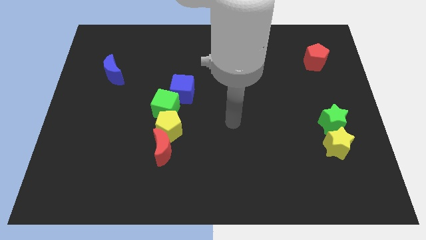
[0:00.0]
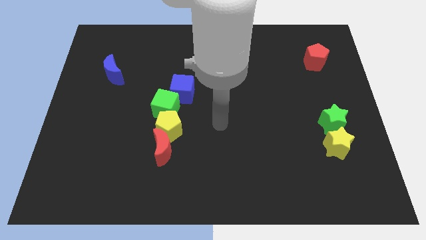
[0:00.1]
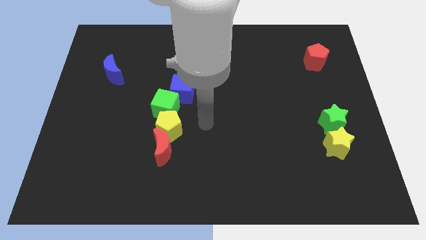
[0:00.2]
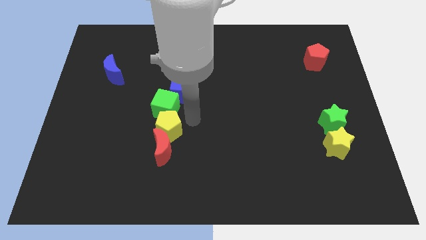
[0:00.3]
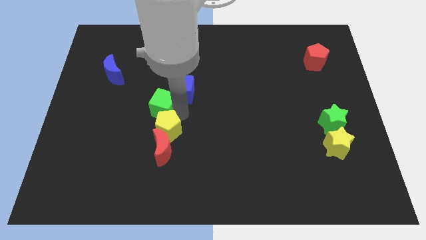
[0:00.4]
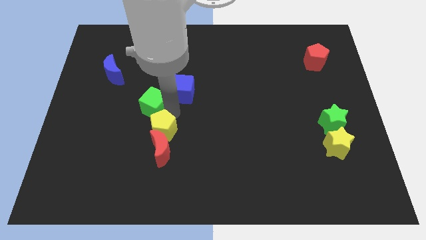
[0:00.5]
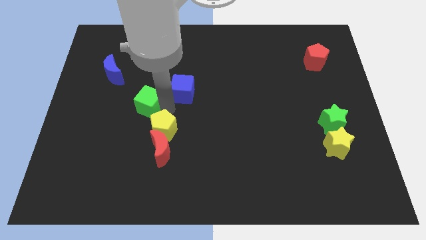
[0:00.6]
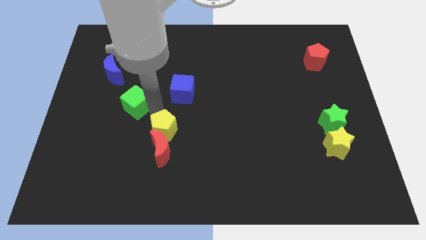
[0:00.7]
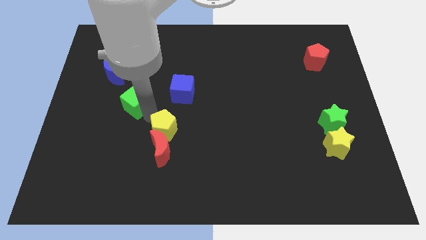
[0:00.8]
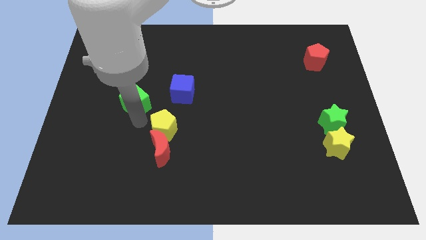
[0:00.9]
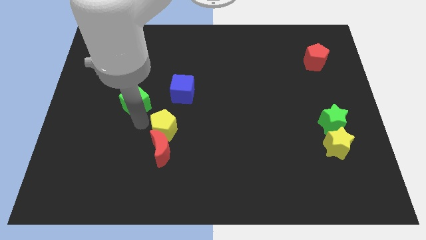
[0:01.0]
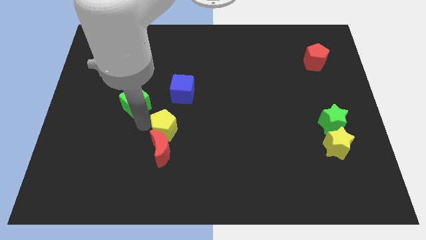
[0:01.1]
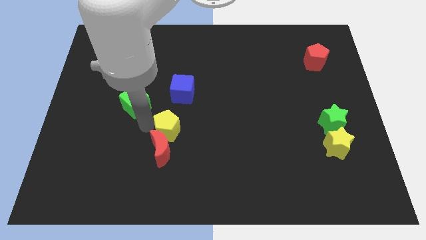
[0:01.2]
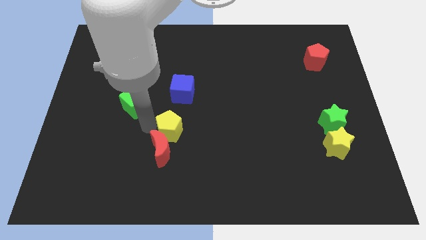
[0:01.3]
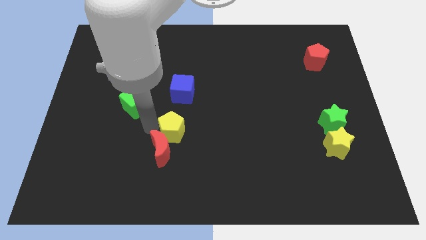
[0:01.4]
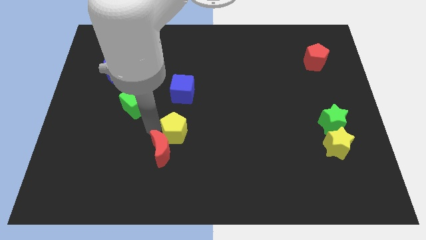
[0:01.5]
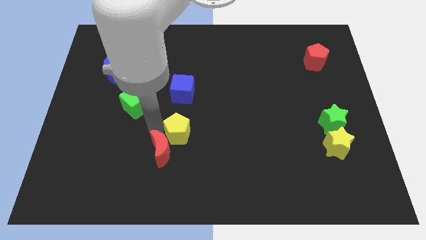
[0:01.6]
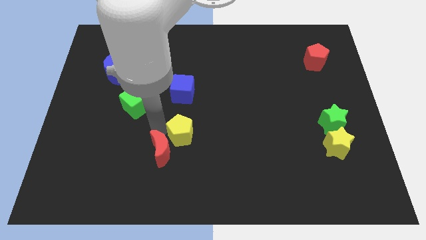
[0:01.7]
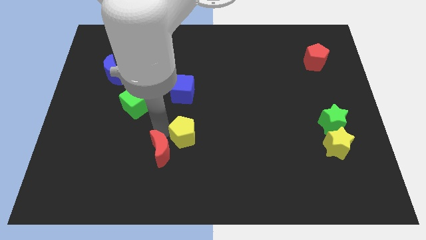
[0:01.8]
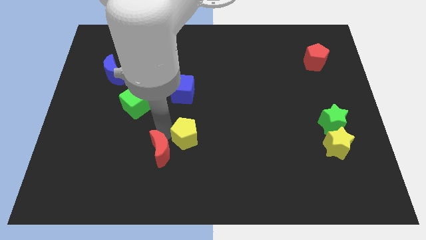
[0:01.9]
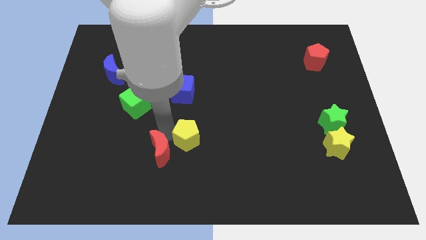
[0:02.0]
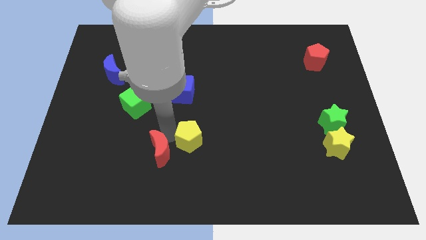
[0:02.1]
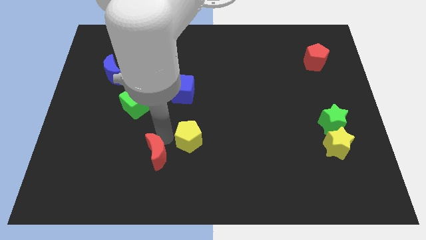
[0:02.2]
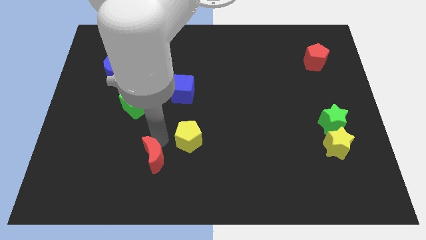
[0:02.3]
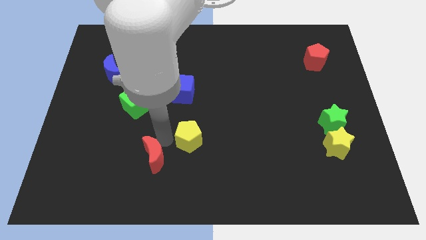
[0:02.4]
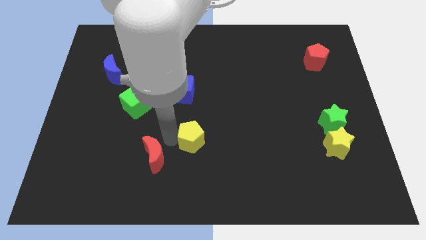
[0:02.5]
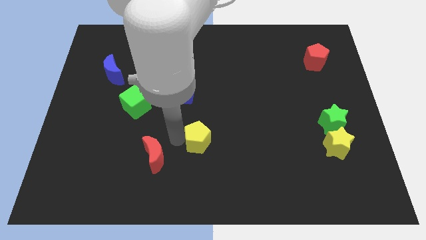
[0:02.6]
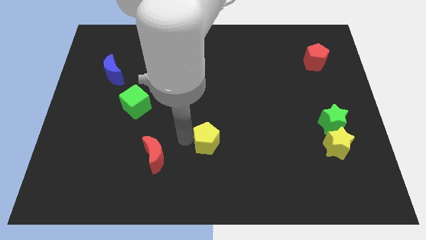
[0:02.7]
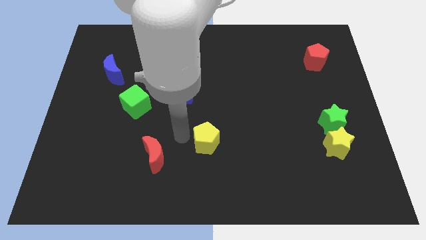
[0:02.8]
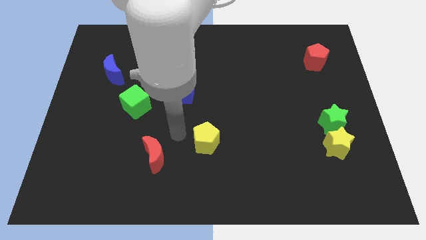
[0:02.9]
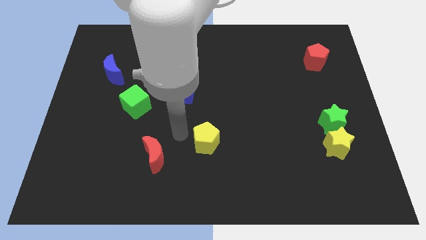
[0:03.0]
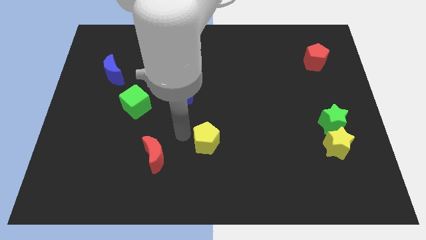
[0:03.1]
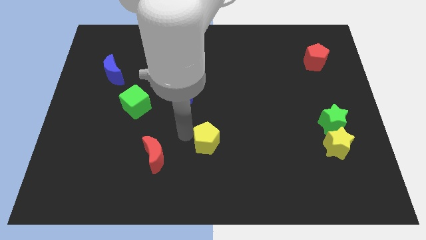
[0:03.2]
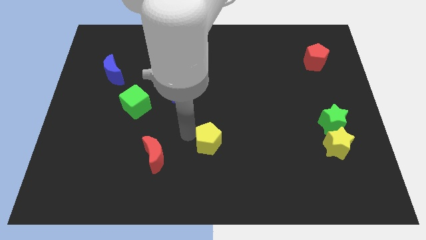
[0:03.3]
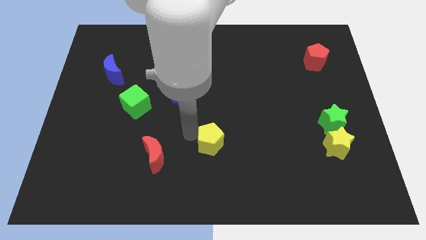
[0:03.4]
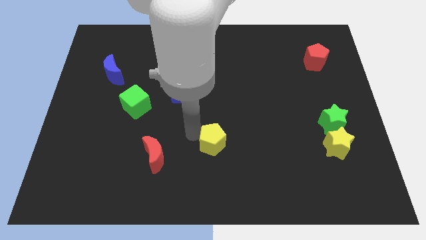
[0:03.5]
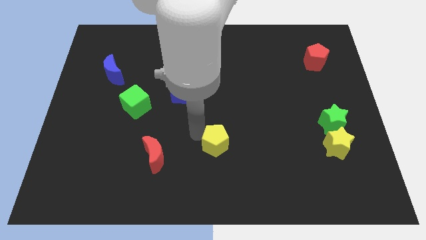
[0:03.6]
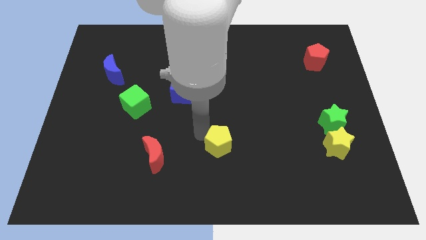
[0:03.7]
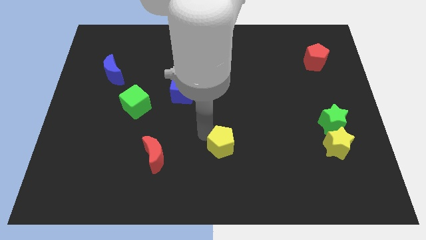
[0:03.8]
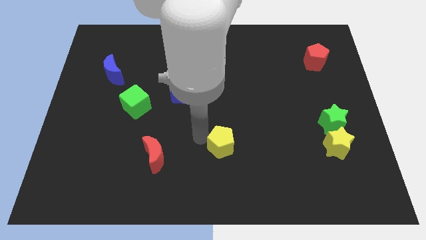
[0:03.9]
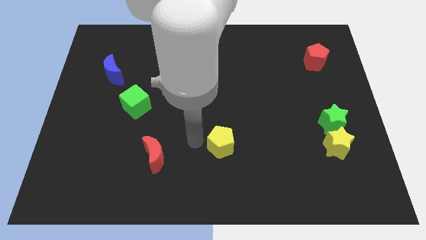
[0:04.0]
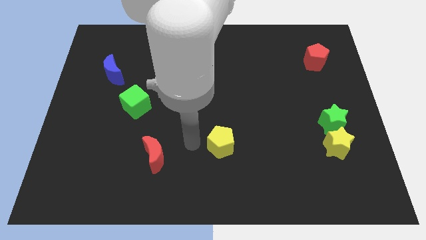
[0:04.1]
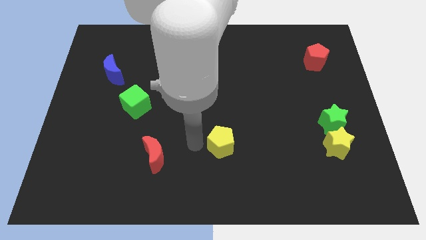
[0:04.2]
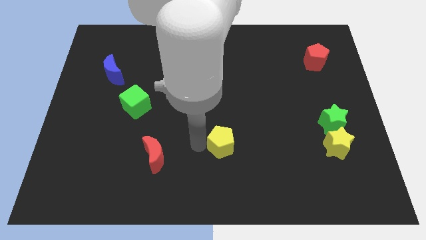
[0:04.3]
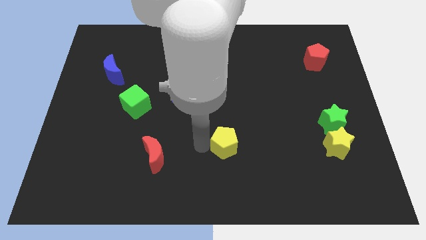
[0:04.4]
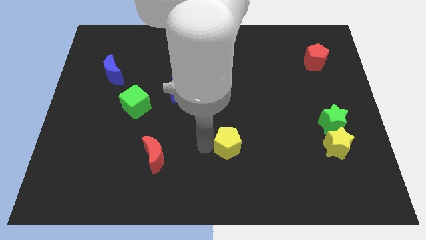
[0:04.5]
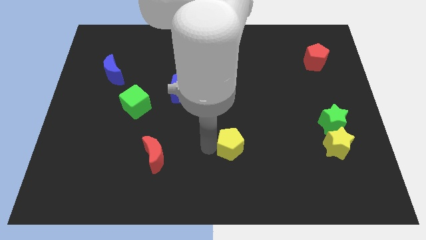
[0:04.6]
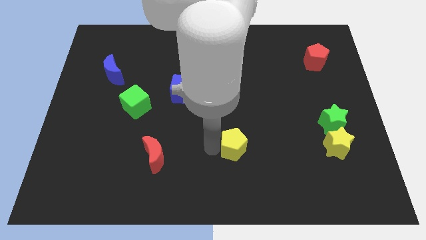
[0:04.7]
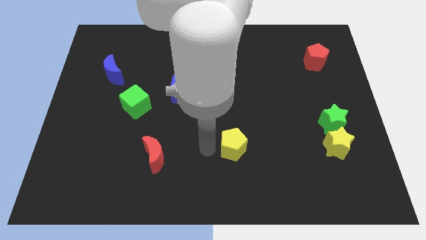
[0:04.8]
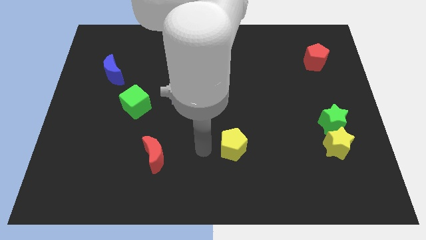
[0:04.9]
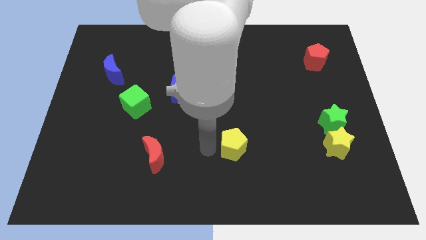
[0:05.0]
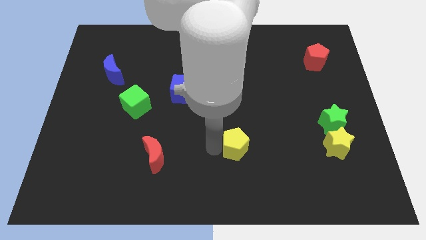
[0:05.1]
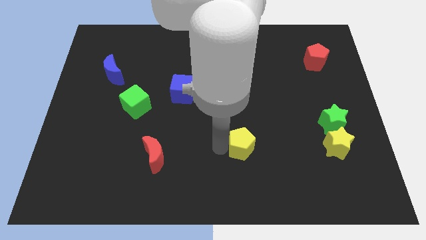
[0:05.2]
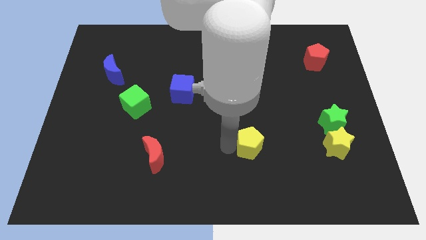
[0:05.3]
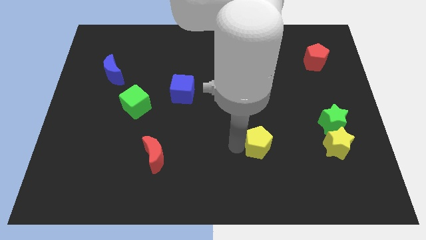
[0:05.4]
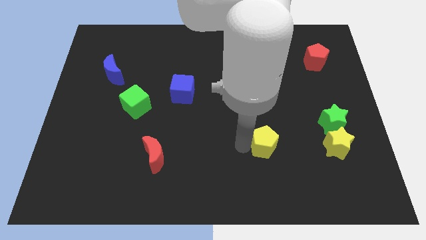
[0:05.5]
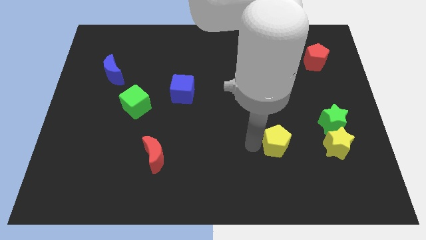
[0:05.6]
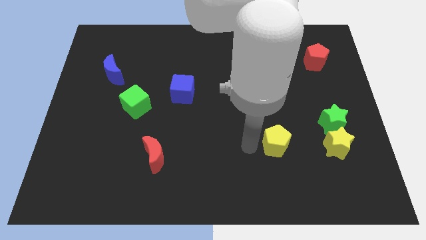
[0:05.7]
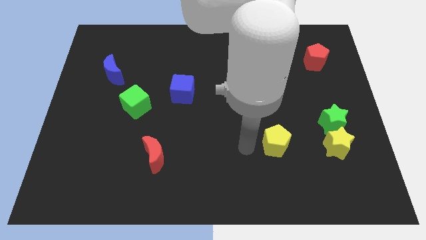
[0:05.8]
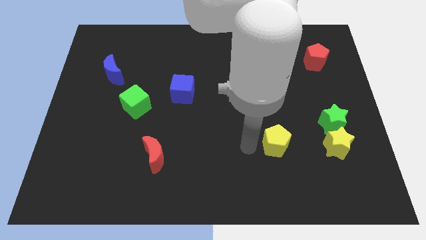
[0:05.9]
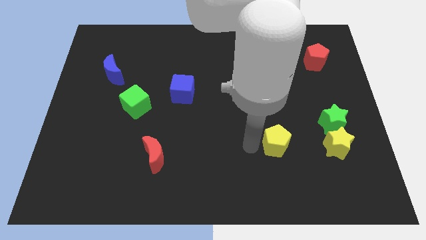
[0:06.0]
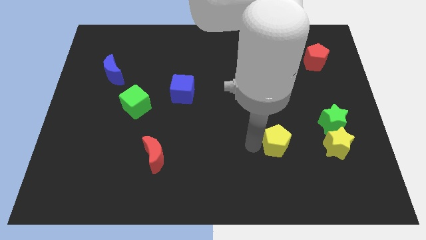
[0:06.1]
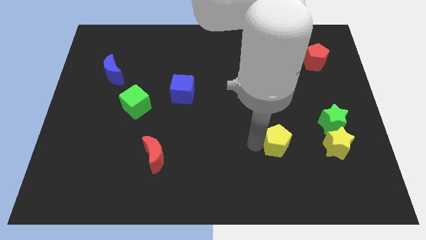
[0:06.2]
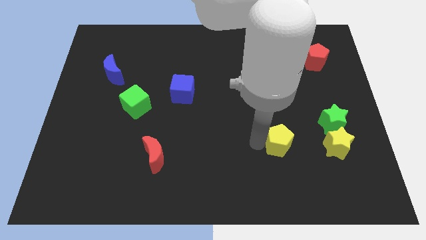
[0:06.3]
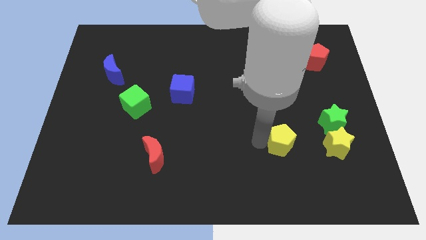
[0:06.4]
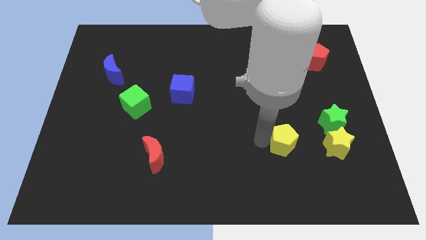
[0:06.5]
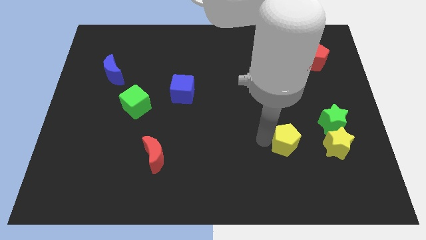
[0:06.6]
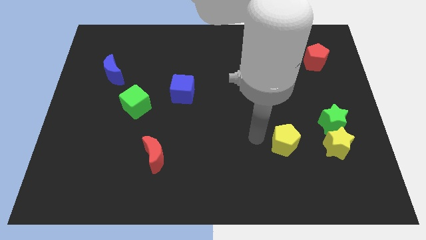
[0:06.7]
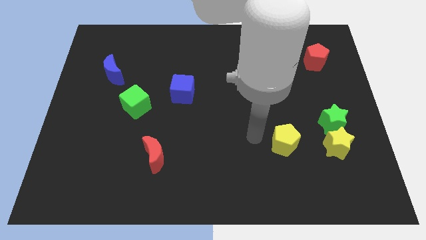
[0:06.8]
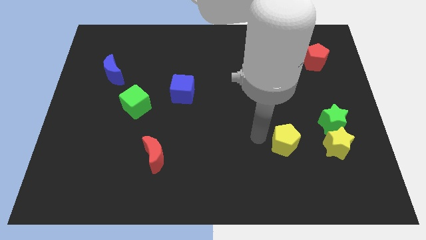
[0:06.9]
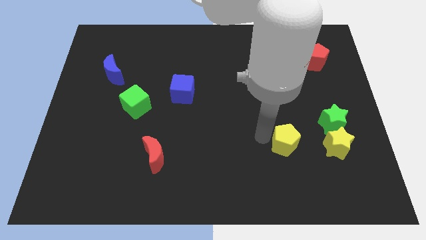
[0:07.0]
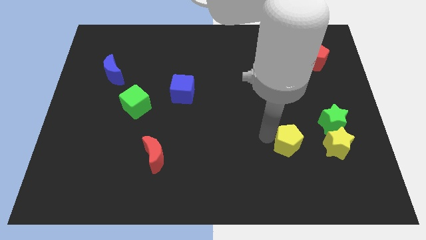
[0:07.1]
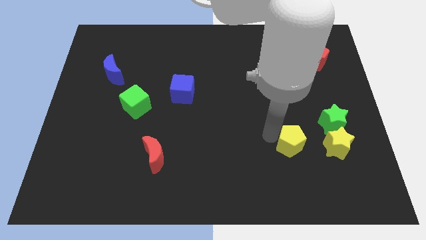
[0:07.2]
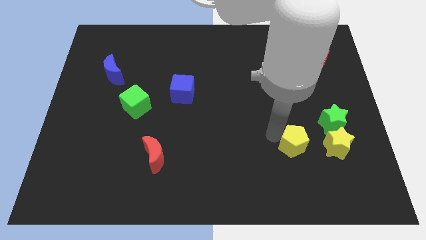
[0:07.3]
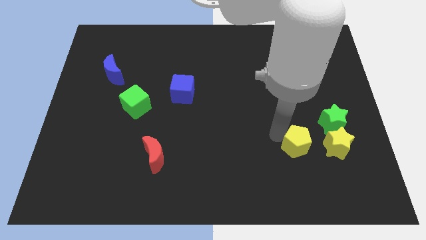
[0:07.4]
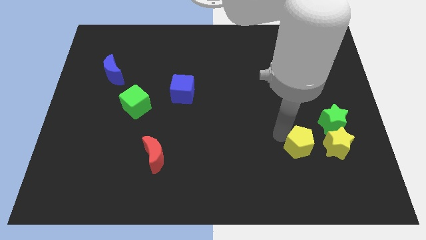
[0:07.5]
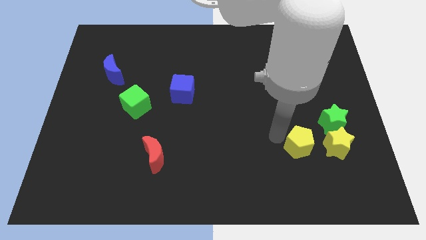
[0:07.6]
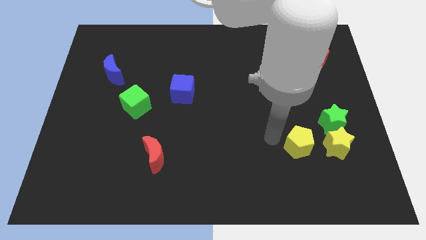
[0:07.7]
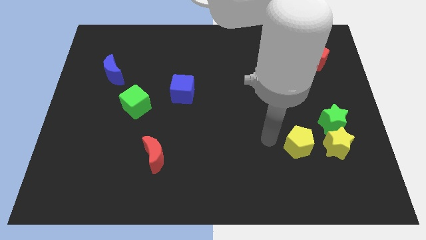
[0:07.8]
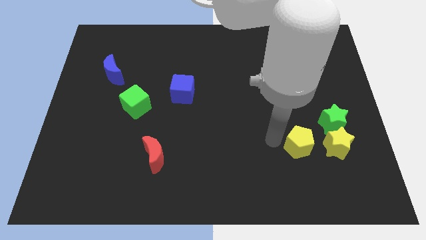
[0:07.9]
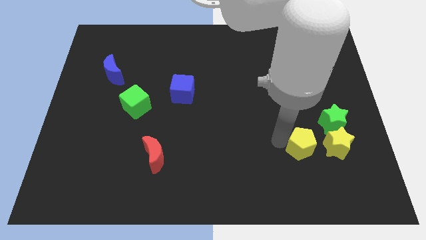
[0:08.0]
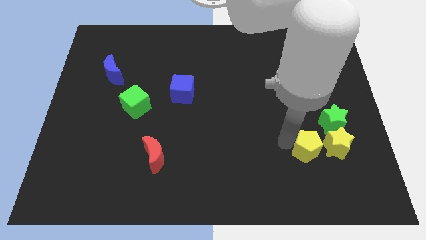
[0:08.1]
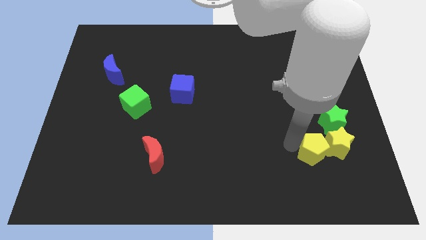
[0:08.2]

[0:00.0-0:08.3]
push the yellow pentagon towards the yellow star
